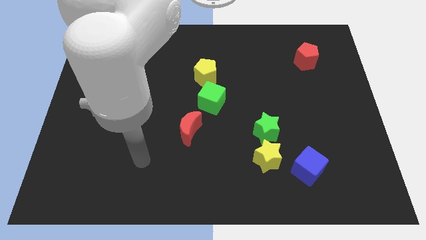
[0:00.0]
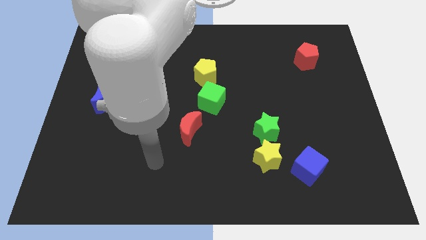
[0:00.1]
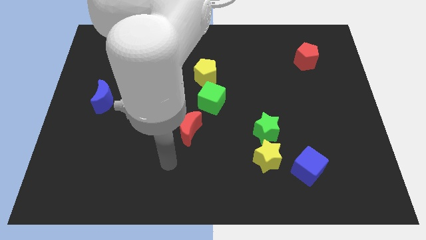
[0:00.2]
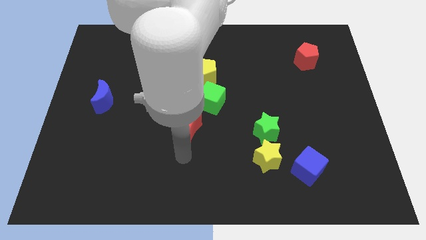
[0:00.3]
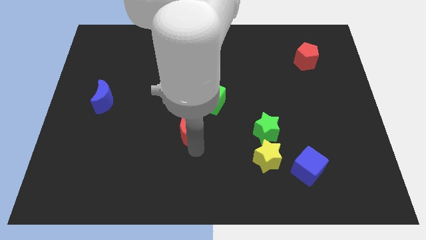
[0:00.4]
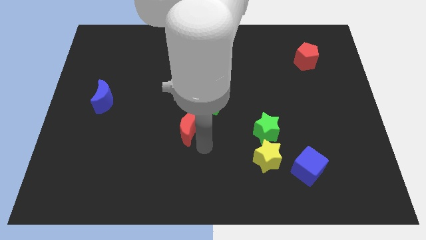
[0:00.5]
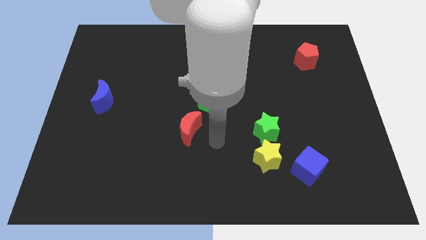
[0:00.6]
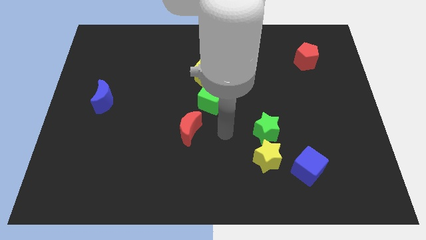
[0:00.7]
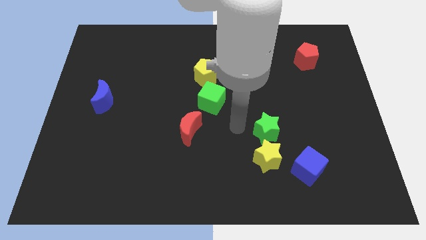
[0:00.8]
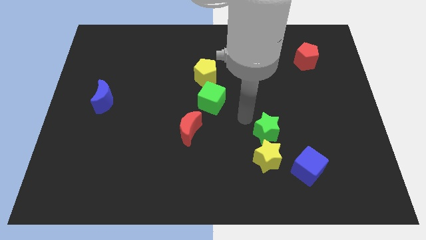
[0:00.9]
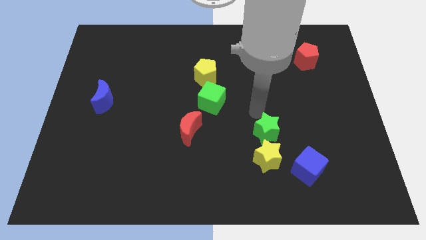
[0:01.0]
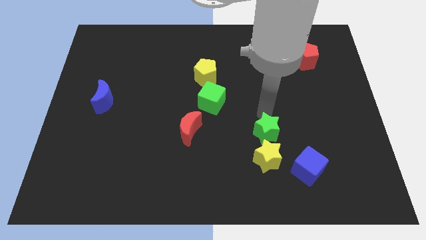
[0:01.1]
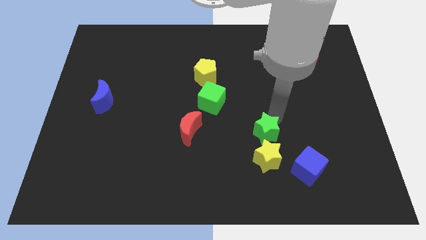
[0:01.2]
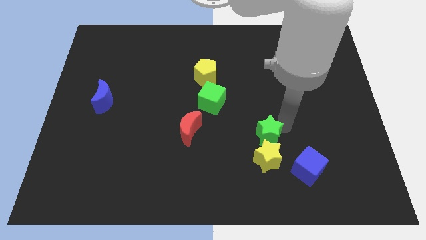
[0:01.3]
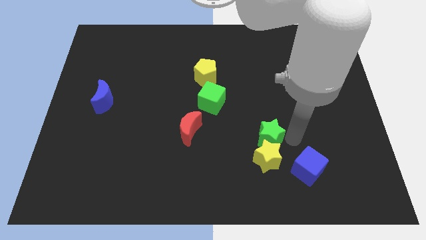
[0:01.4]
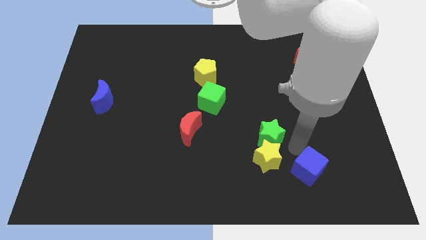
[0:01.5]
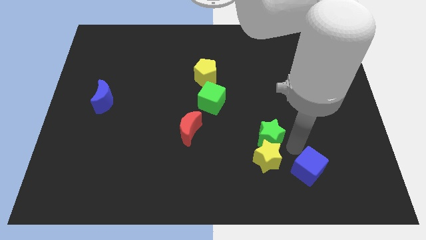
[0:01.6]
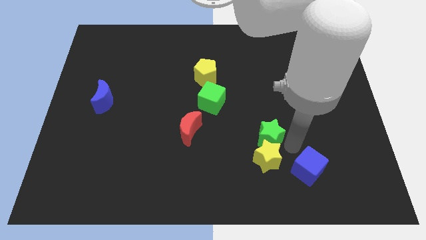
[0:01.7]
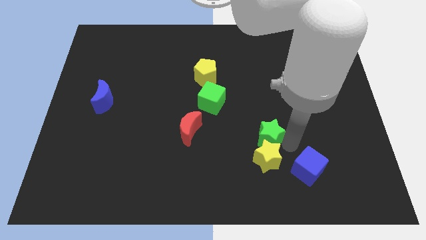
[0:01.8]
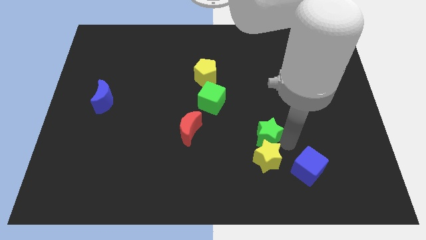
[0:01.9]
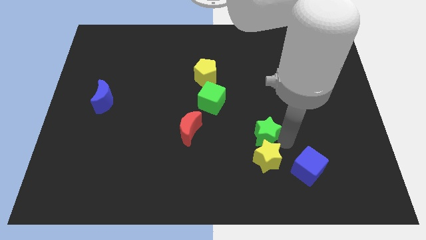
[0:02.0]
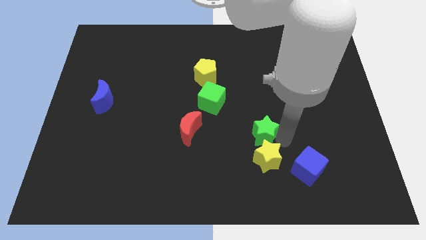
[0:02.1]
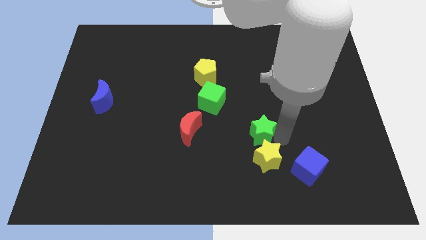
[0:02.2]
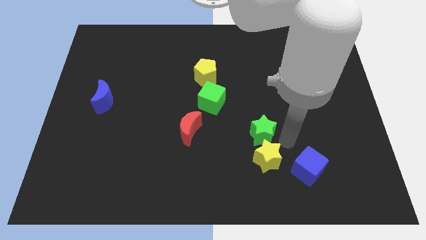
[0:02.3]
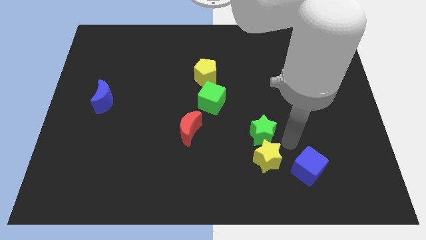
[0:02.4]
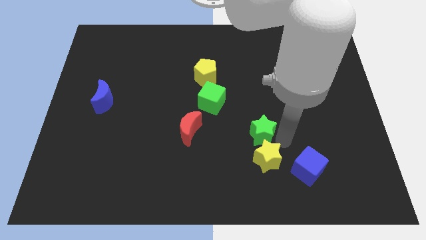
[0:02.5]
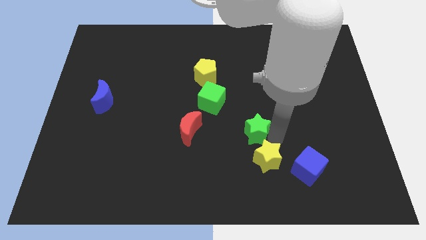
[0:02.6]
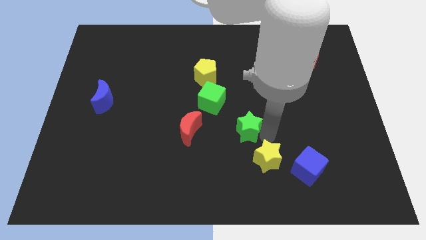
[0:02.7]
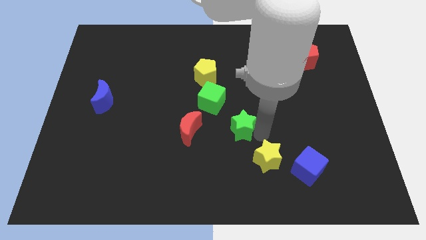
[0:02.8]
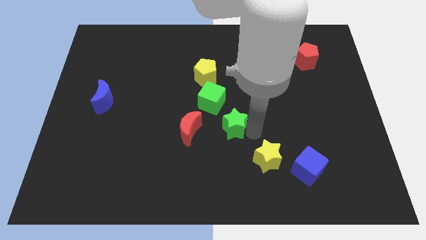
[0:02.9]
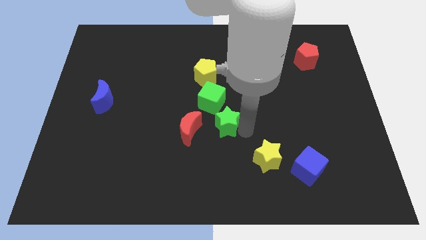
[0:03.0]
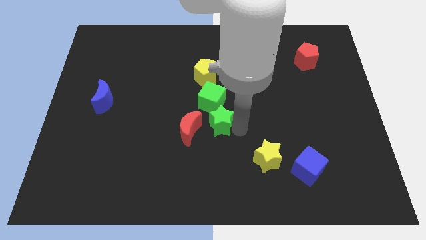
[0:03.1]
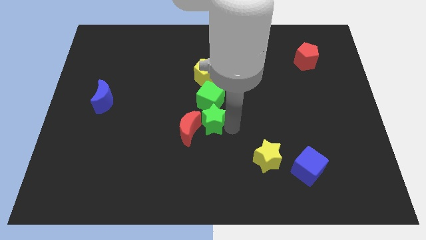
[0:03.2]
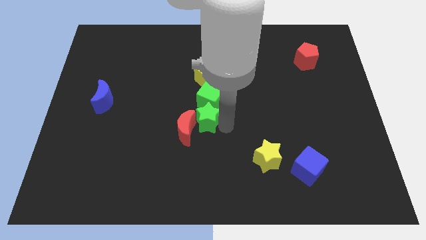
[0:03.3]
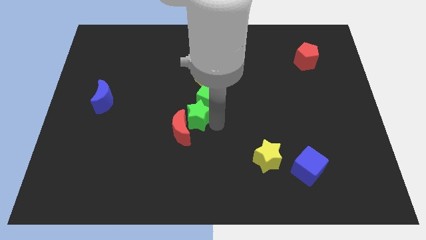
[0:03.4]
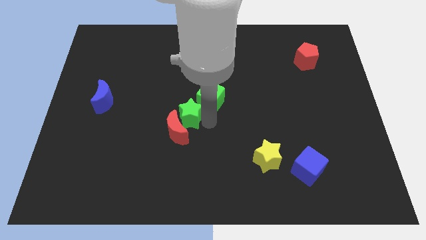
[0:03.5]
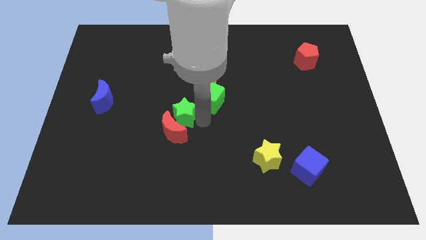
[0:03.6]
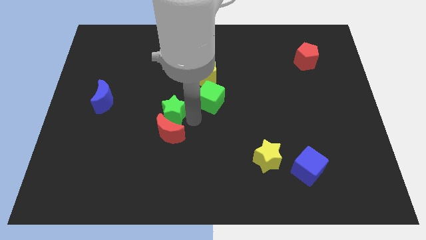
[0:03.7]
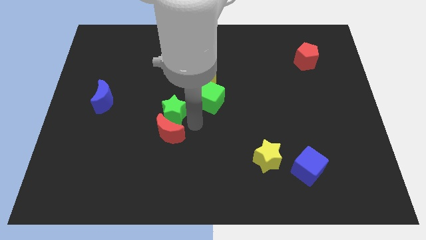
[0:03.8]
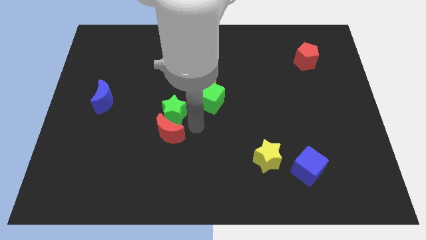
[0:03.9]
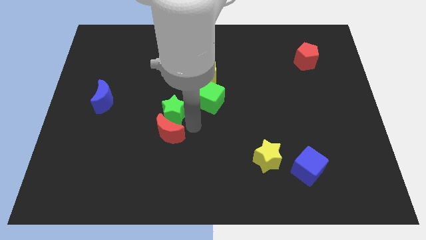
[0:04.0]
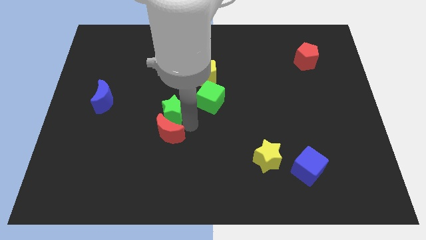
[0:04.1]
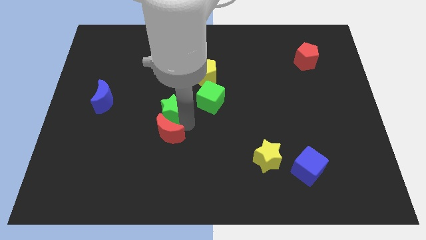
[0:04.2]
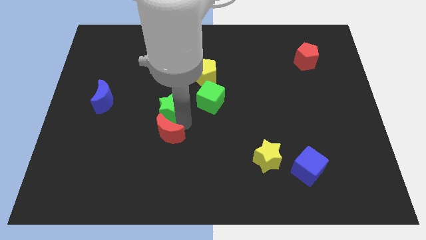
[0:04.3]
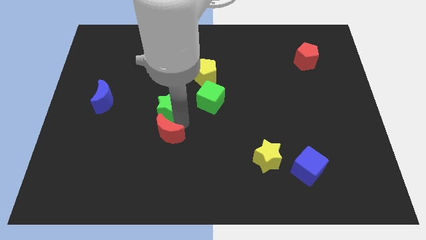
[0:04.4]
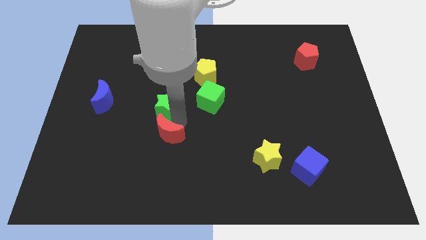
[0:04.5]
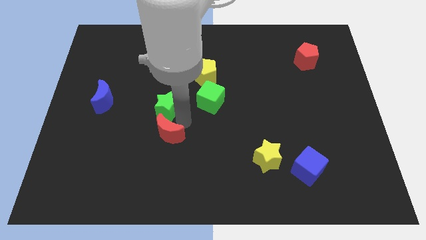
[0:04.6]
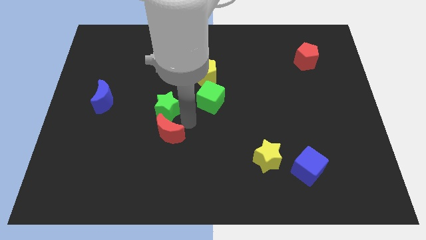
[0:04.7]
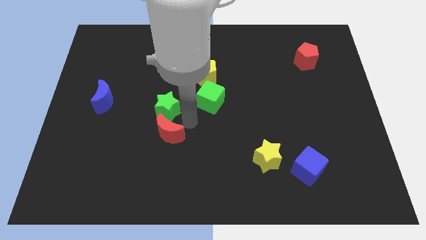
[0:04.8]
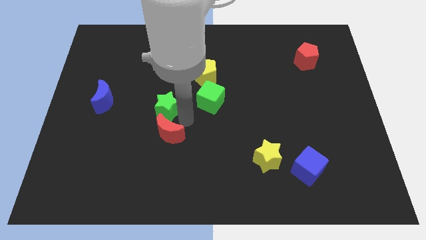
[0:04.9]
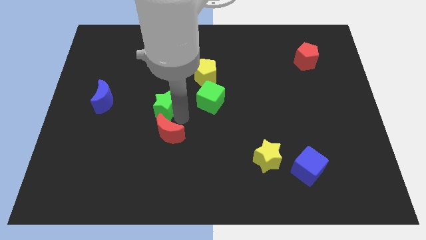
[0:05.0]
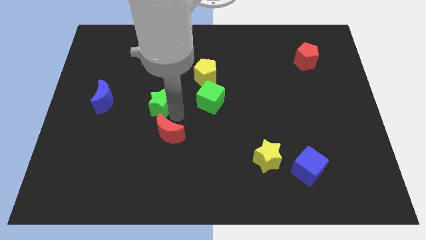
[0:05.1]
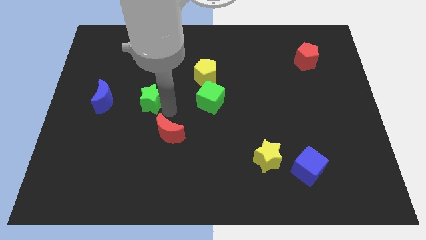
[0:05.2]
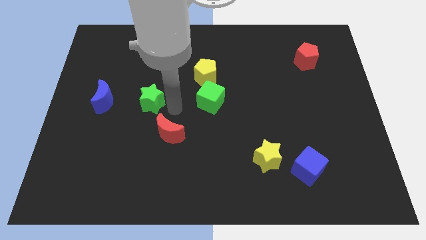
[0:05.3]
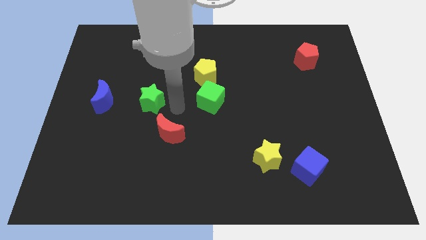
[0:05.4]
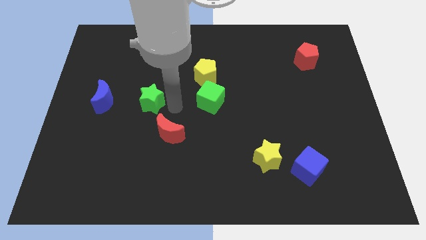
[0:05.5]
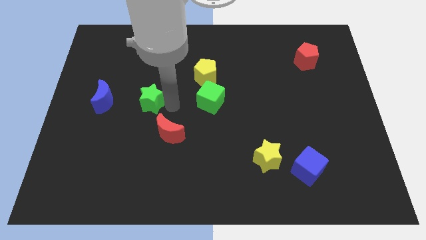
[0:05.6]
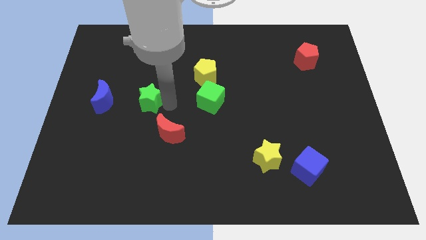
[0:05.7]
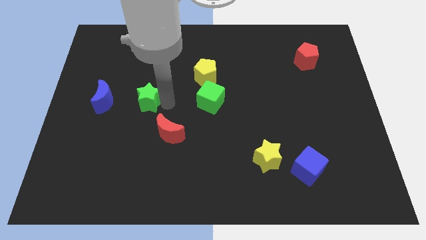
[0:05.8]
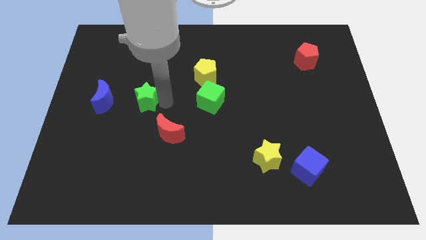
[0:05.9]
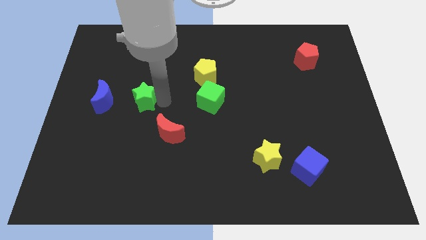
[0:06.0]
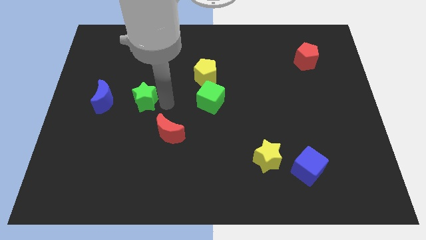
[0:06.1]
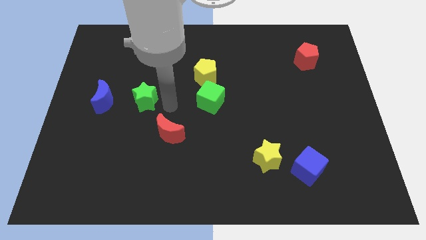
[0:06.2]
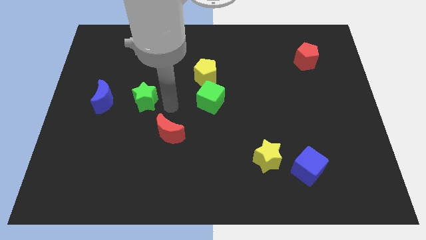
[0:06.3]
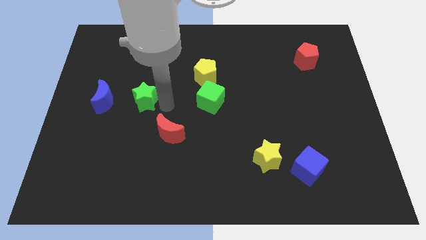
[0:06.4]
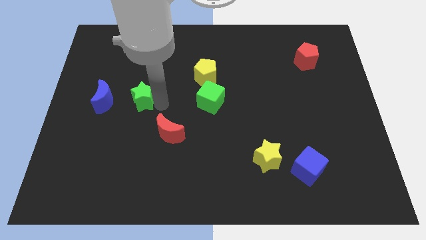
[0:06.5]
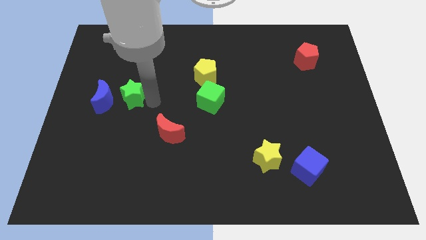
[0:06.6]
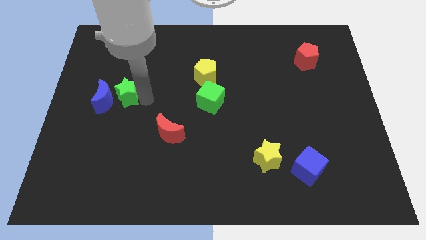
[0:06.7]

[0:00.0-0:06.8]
push the green star to the blue moon

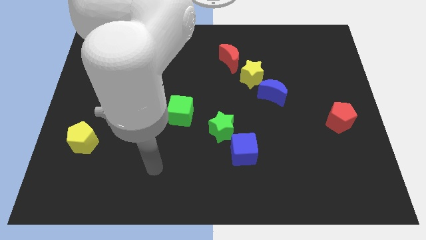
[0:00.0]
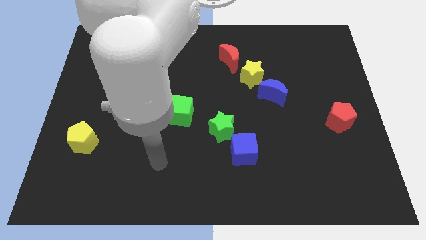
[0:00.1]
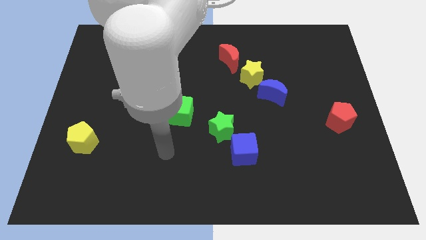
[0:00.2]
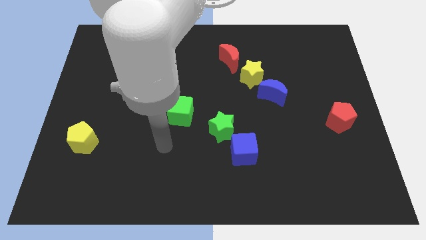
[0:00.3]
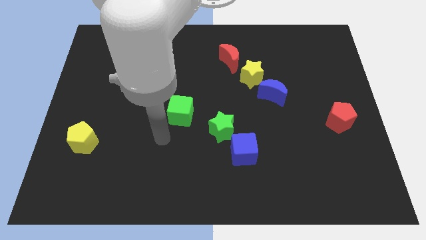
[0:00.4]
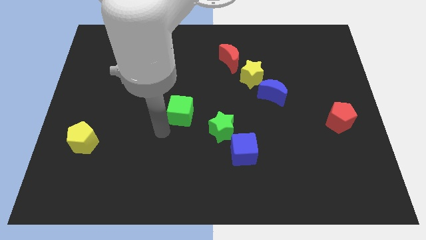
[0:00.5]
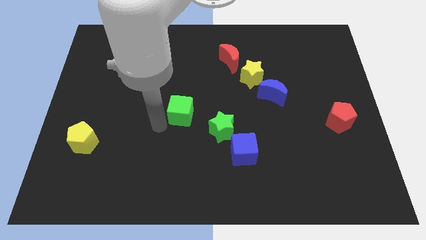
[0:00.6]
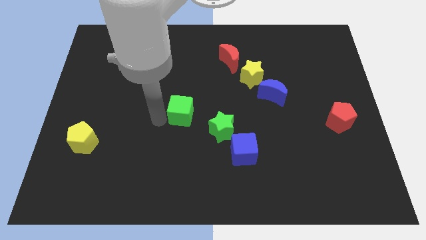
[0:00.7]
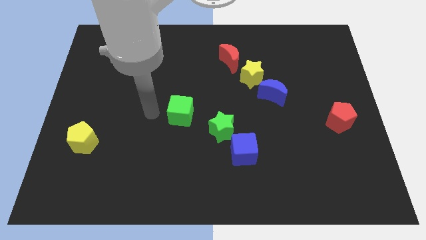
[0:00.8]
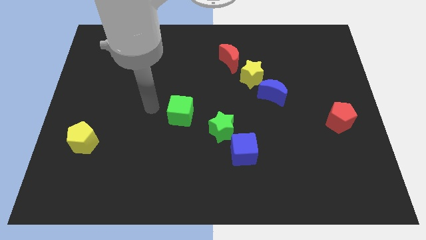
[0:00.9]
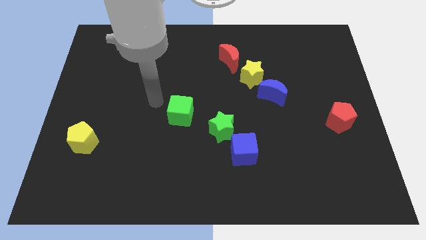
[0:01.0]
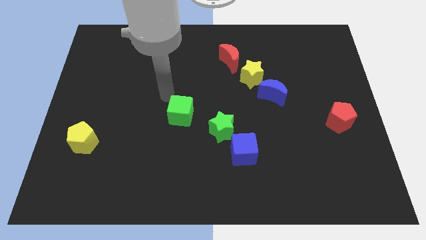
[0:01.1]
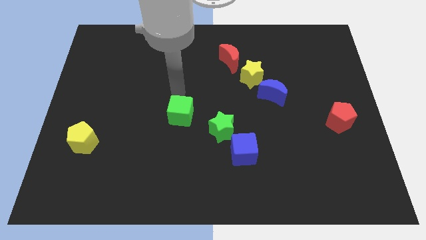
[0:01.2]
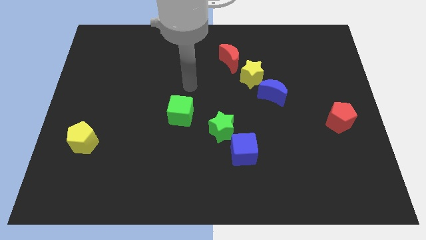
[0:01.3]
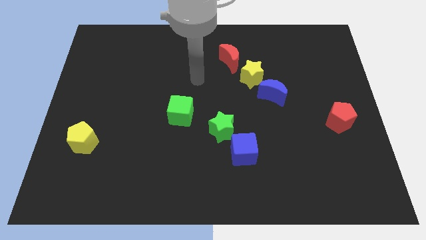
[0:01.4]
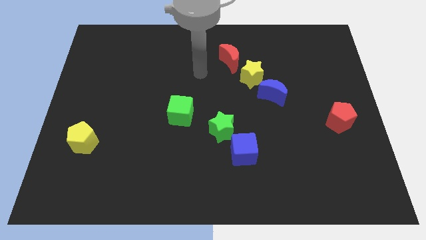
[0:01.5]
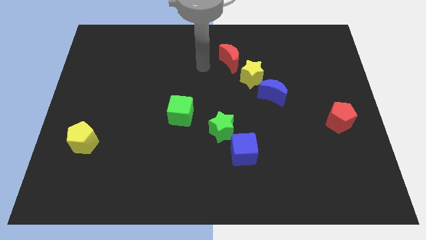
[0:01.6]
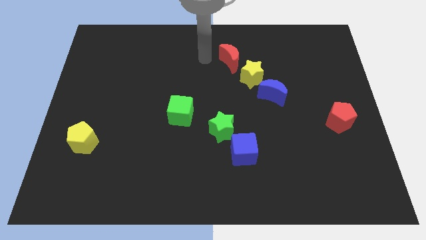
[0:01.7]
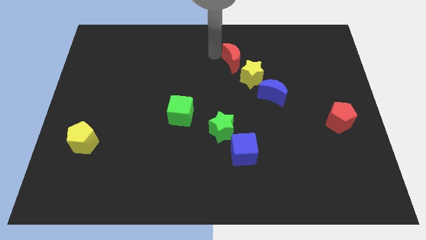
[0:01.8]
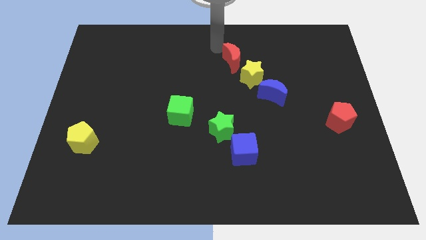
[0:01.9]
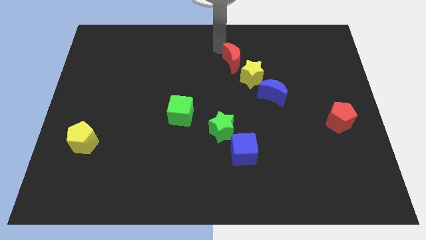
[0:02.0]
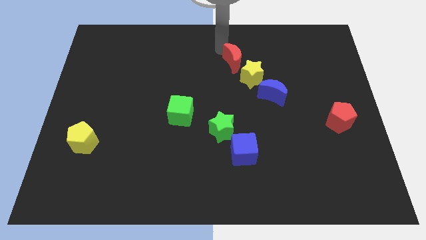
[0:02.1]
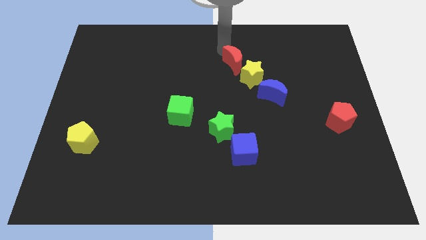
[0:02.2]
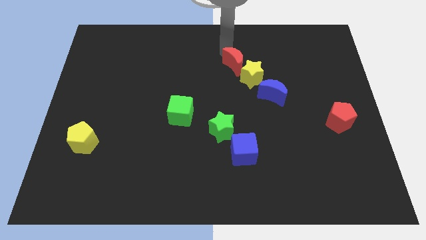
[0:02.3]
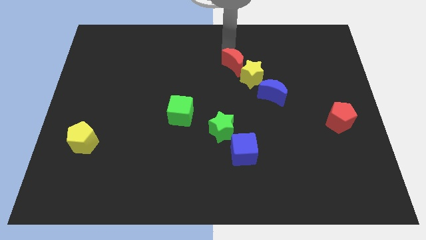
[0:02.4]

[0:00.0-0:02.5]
put the red moon next to the yellow star
